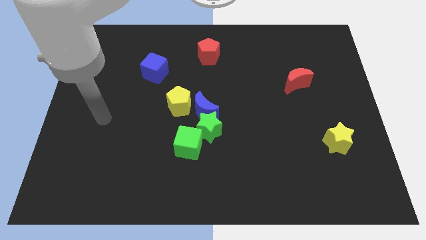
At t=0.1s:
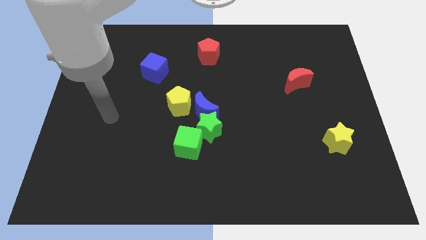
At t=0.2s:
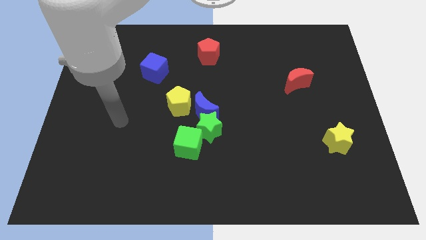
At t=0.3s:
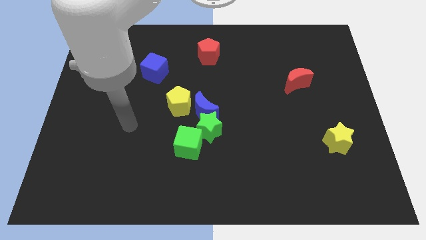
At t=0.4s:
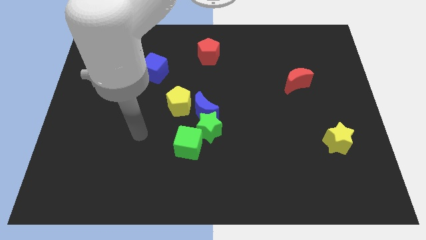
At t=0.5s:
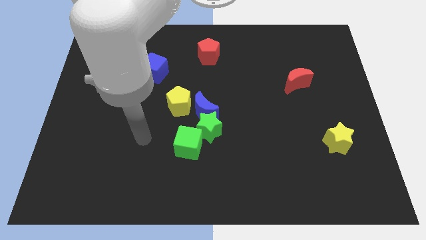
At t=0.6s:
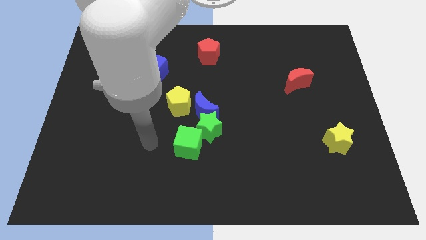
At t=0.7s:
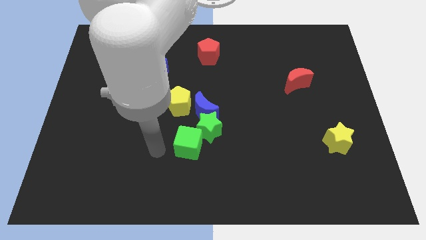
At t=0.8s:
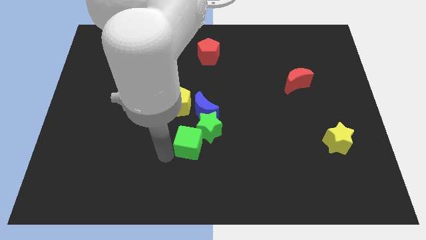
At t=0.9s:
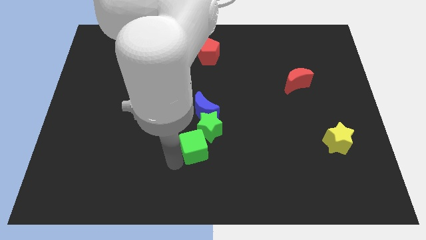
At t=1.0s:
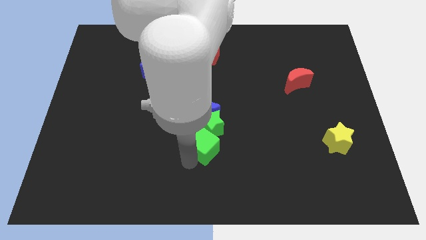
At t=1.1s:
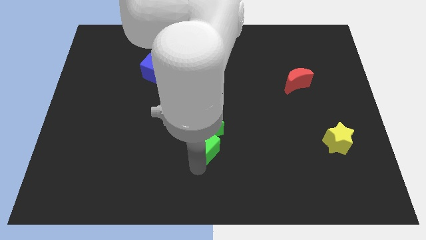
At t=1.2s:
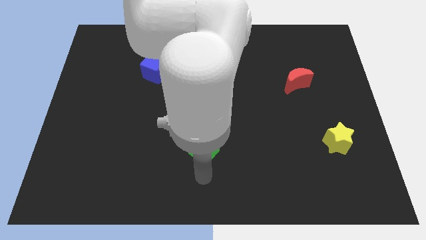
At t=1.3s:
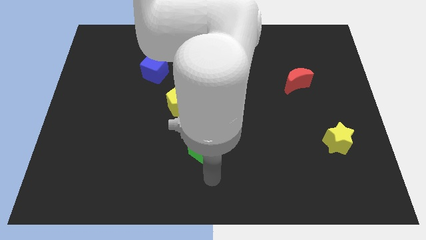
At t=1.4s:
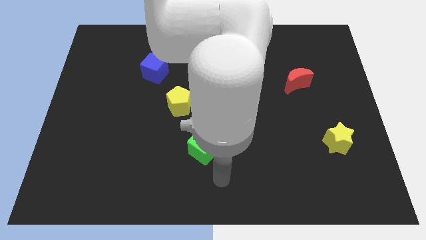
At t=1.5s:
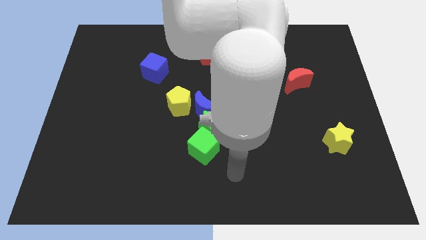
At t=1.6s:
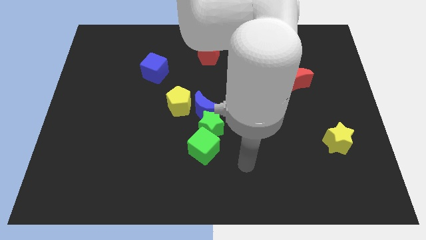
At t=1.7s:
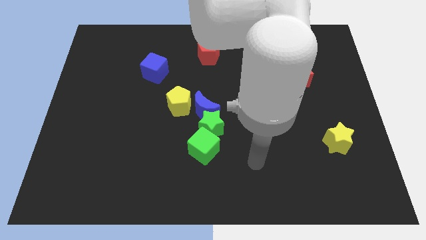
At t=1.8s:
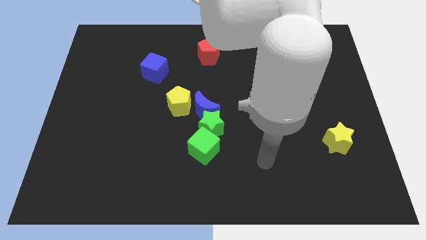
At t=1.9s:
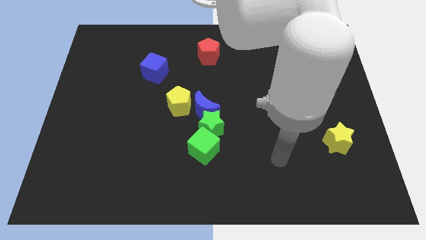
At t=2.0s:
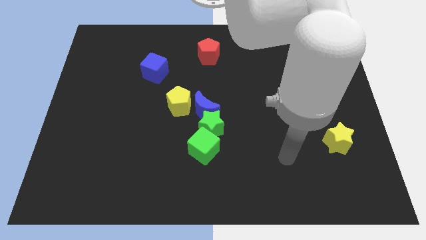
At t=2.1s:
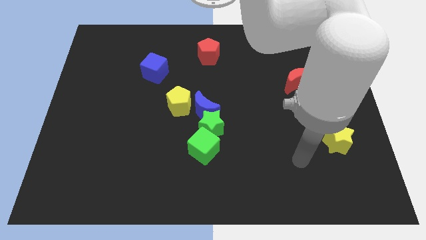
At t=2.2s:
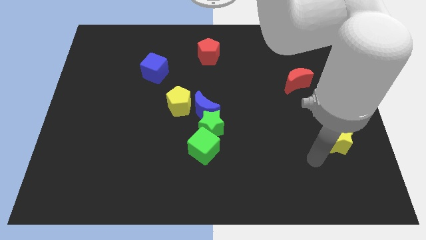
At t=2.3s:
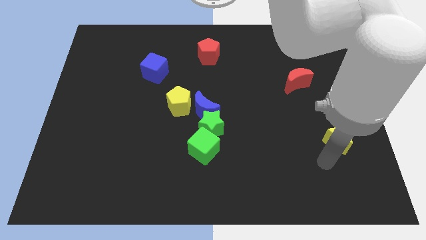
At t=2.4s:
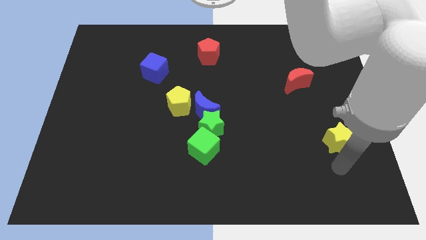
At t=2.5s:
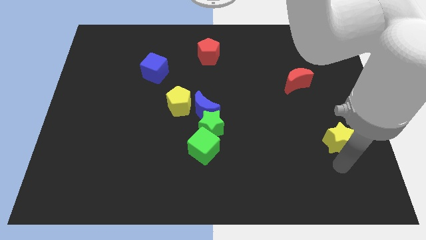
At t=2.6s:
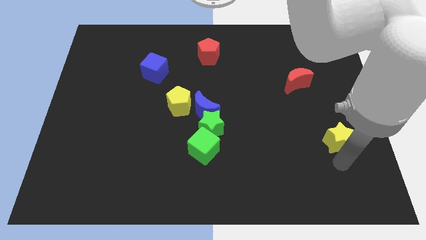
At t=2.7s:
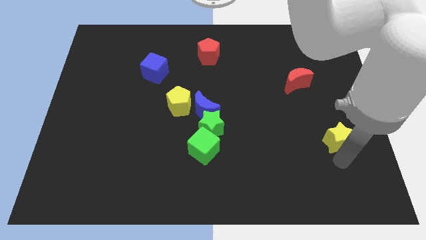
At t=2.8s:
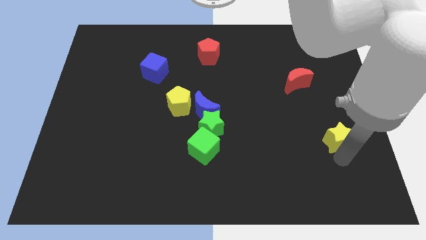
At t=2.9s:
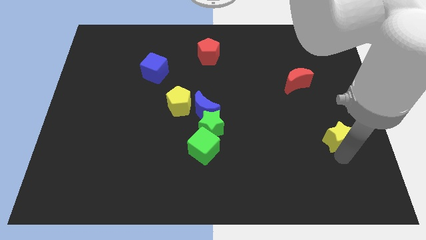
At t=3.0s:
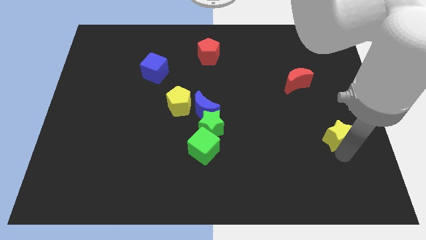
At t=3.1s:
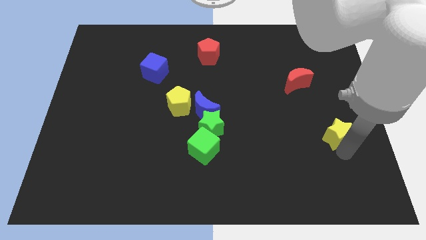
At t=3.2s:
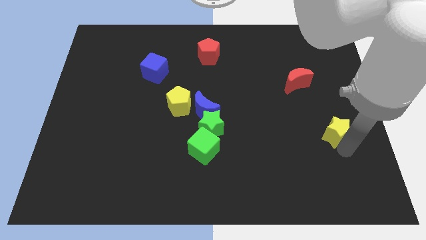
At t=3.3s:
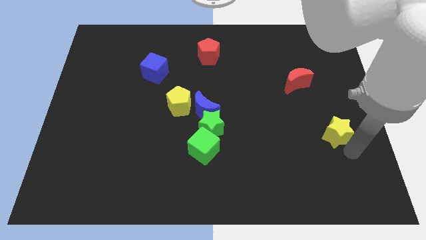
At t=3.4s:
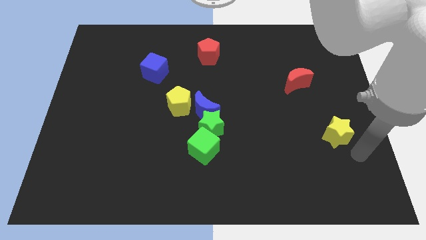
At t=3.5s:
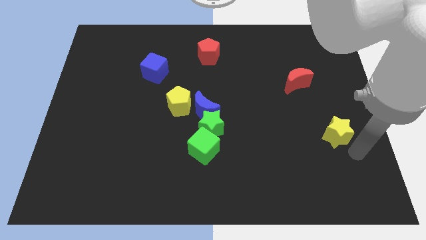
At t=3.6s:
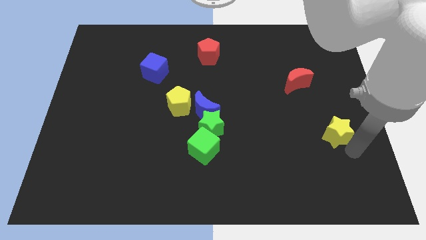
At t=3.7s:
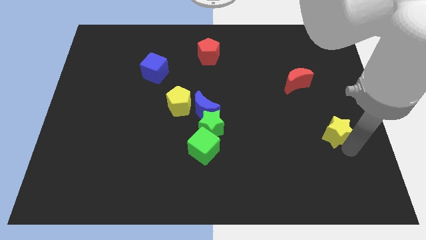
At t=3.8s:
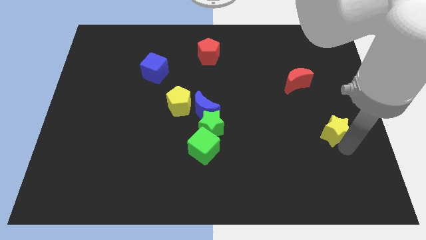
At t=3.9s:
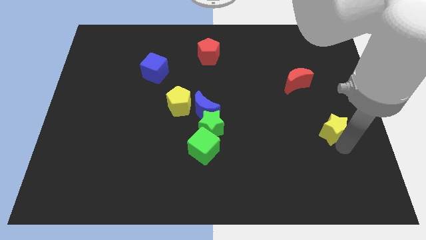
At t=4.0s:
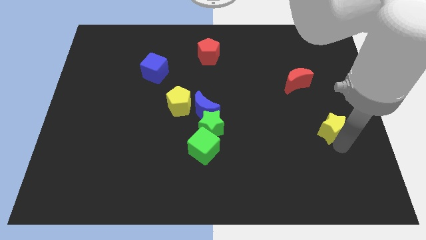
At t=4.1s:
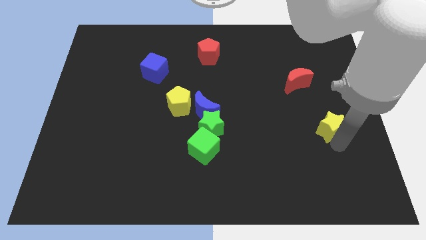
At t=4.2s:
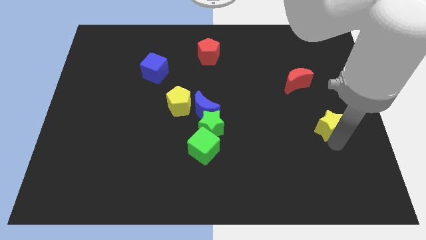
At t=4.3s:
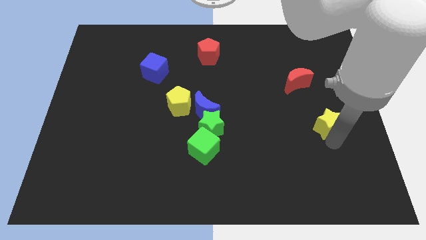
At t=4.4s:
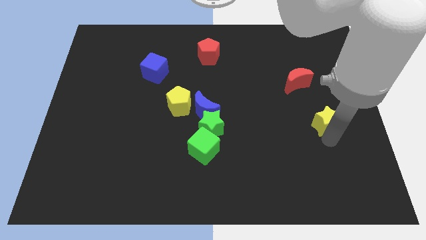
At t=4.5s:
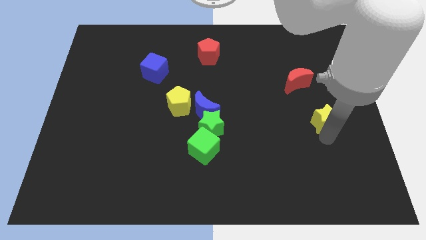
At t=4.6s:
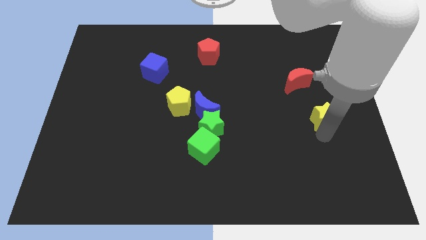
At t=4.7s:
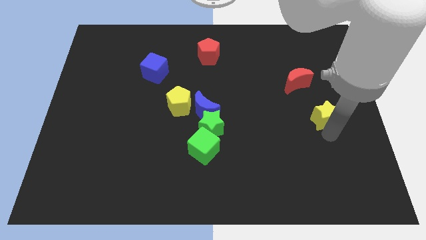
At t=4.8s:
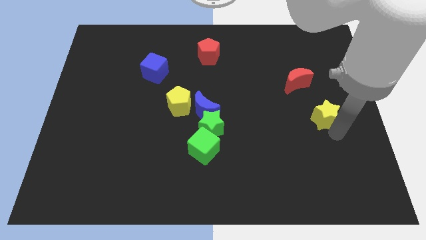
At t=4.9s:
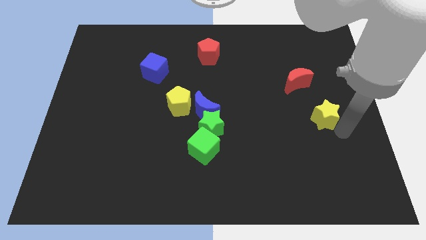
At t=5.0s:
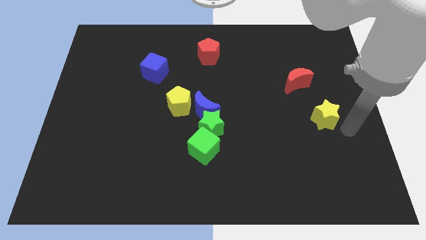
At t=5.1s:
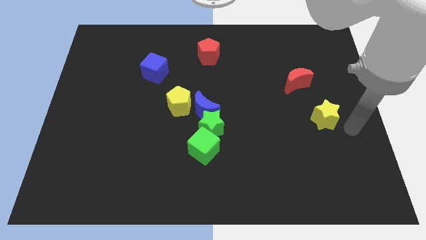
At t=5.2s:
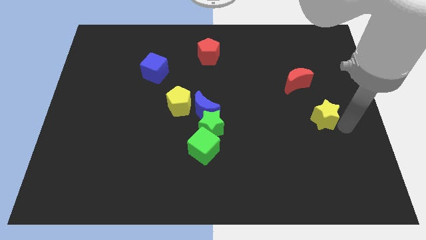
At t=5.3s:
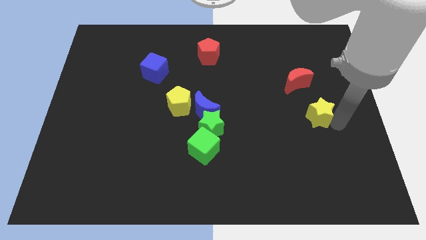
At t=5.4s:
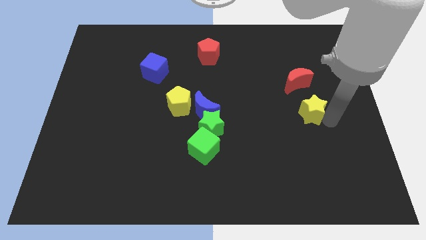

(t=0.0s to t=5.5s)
slide the yellow star a little diagonally upwards and to the left

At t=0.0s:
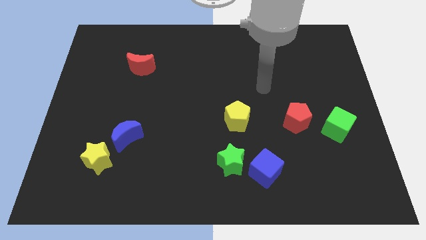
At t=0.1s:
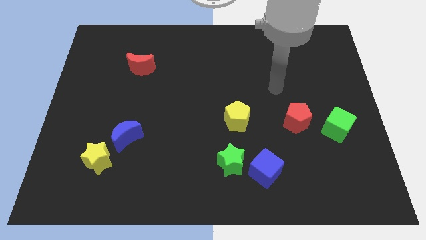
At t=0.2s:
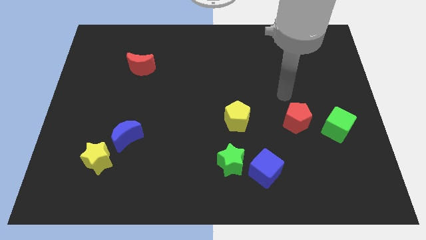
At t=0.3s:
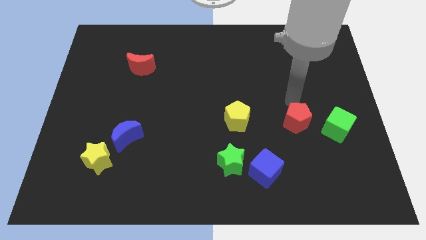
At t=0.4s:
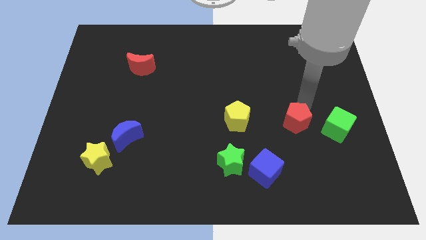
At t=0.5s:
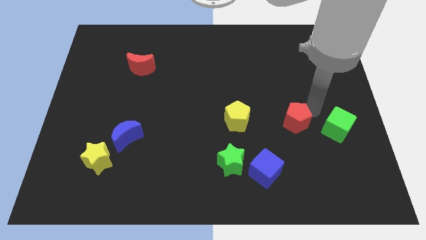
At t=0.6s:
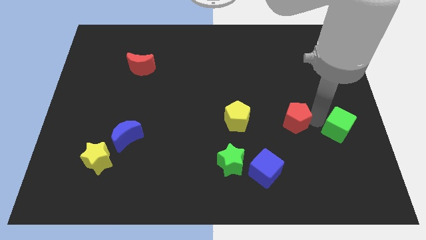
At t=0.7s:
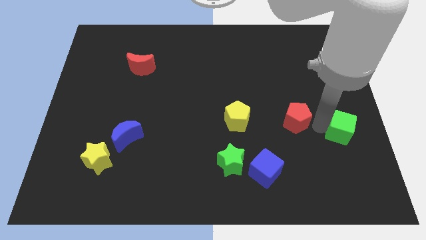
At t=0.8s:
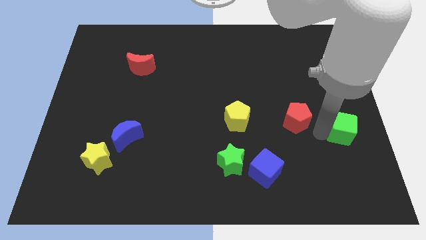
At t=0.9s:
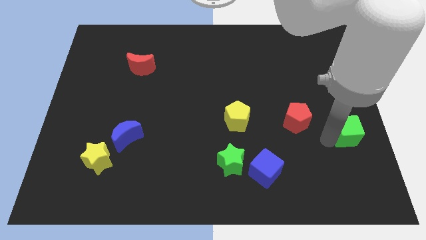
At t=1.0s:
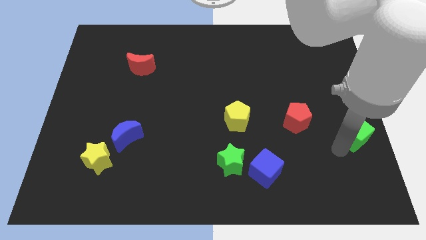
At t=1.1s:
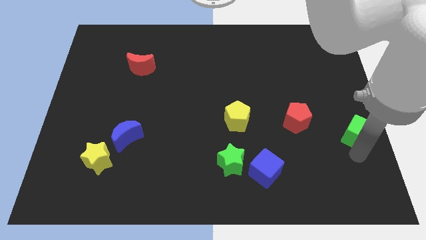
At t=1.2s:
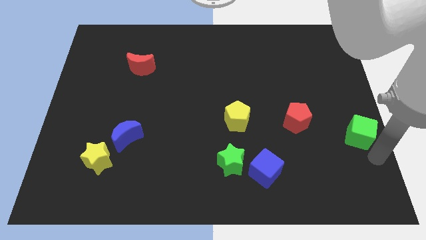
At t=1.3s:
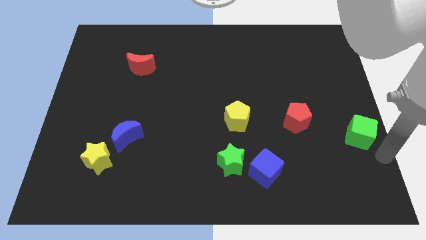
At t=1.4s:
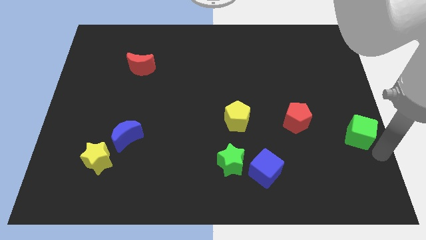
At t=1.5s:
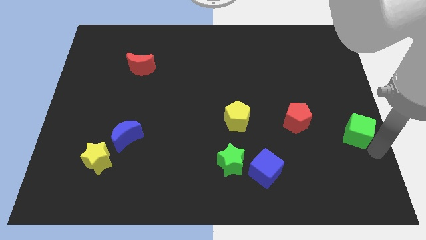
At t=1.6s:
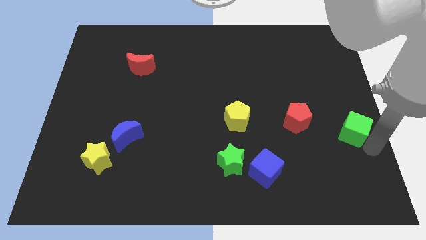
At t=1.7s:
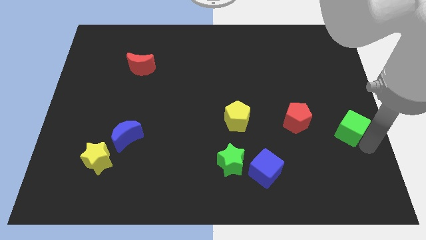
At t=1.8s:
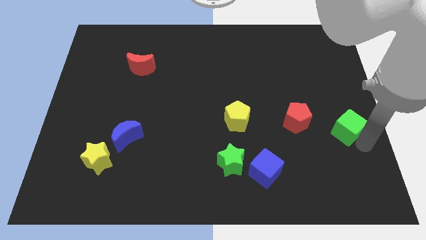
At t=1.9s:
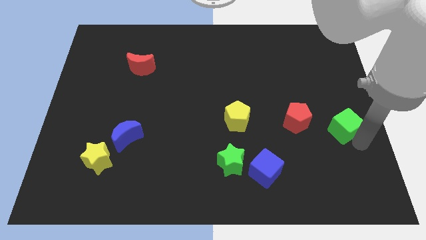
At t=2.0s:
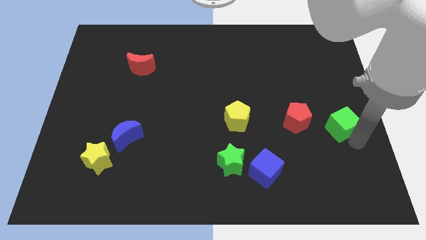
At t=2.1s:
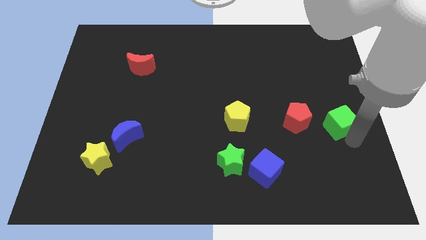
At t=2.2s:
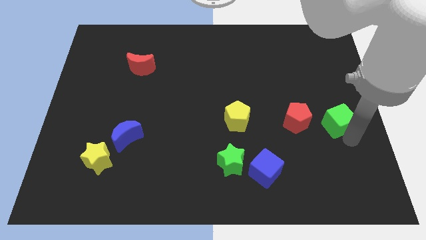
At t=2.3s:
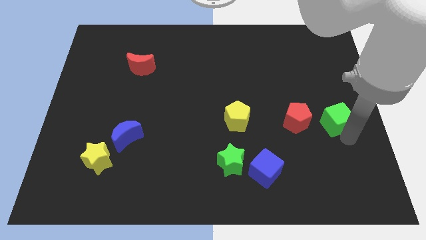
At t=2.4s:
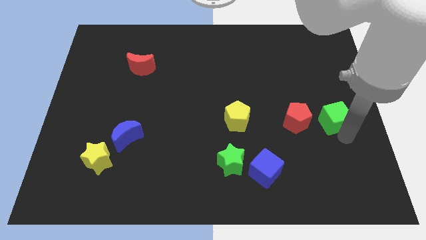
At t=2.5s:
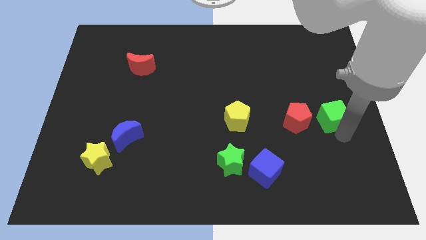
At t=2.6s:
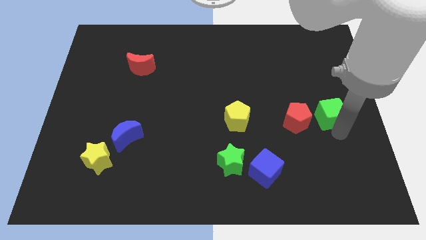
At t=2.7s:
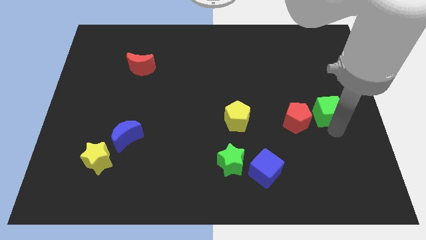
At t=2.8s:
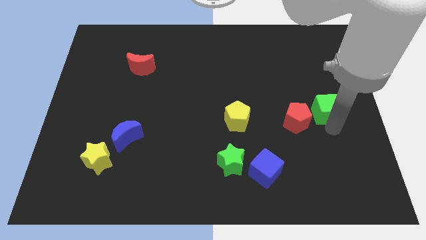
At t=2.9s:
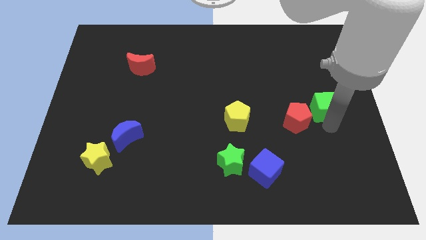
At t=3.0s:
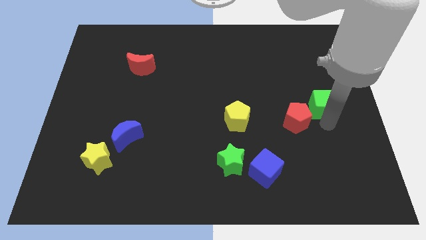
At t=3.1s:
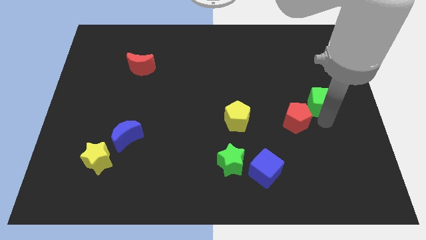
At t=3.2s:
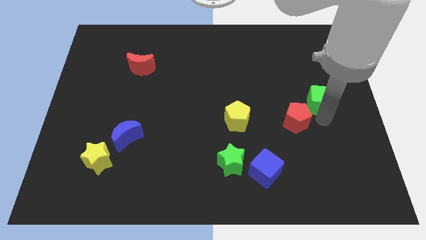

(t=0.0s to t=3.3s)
move the green cube up a bit
